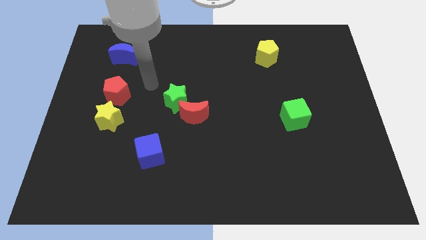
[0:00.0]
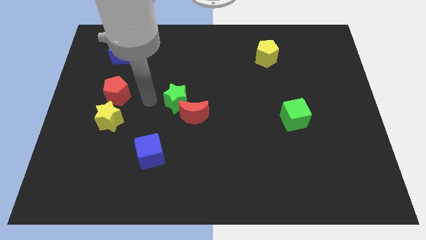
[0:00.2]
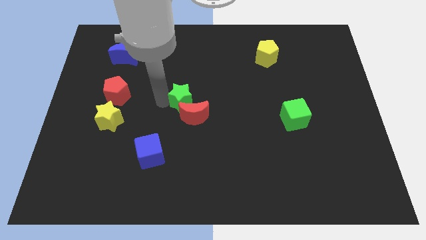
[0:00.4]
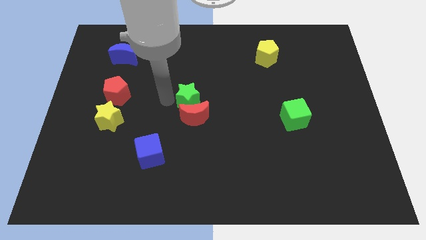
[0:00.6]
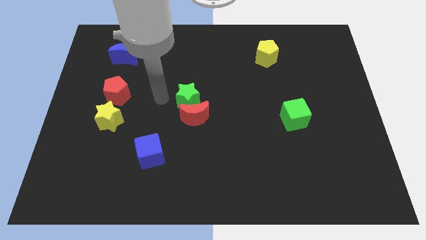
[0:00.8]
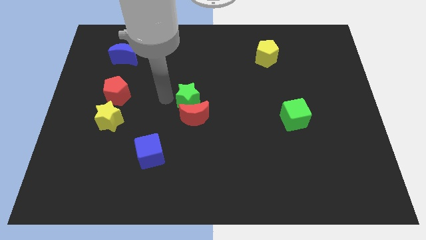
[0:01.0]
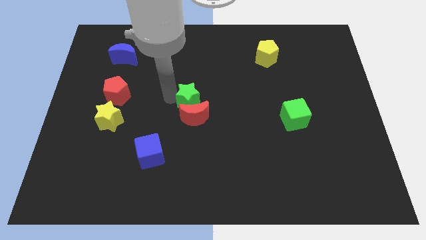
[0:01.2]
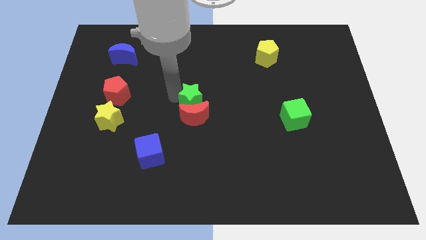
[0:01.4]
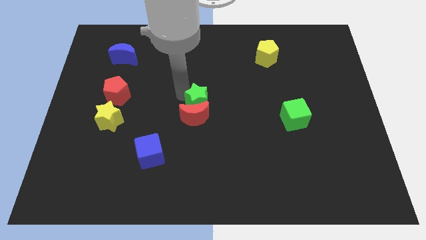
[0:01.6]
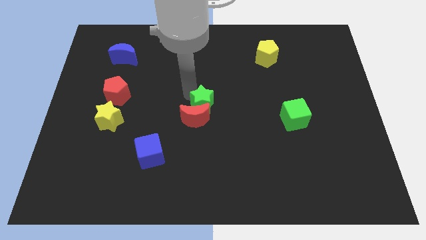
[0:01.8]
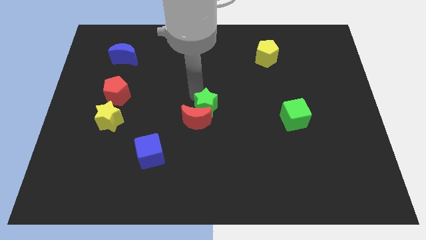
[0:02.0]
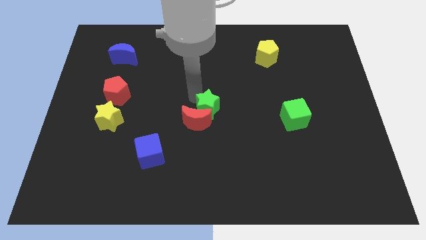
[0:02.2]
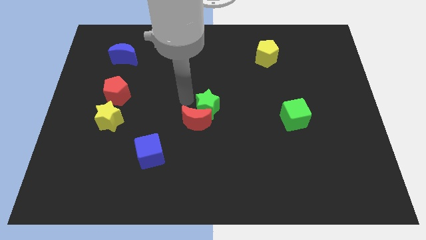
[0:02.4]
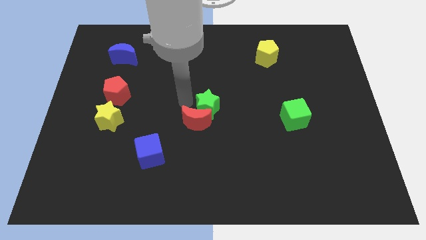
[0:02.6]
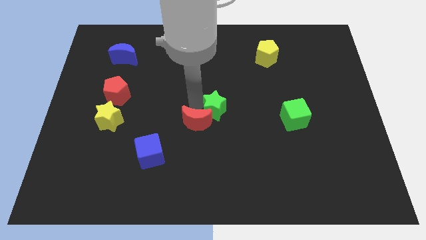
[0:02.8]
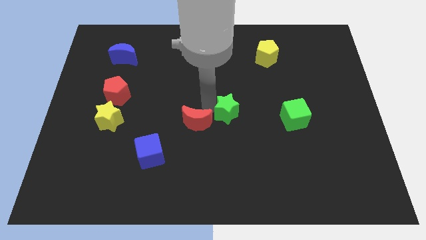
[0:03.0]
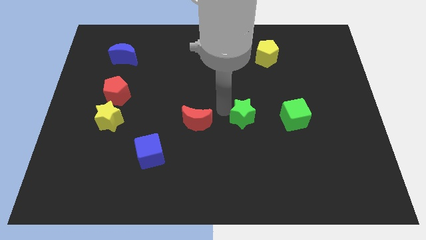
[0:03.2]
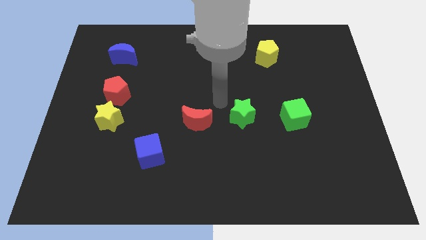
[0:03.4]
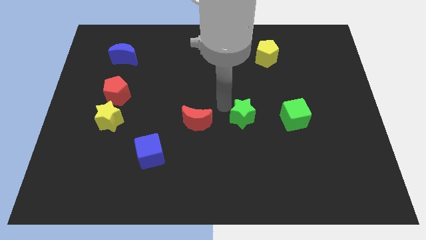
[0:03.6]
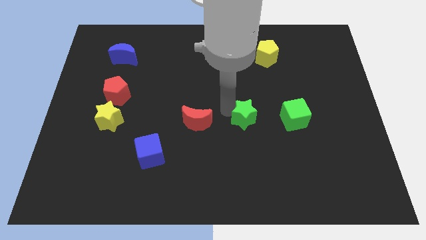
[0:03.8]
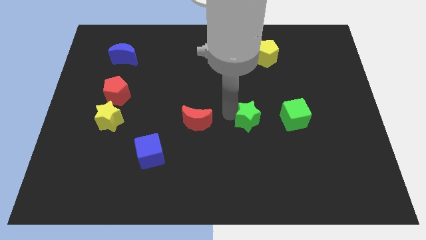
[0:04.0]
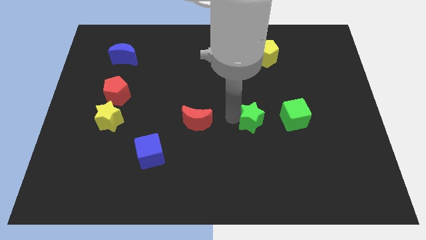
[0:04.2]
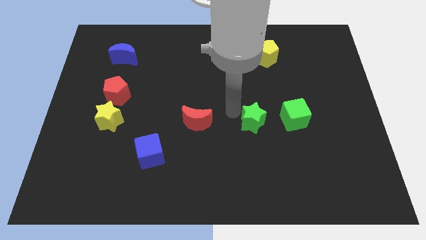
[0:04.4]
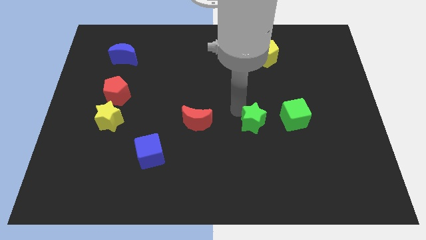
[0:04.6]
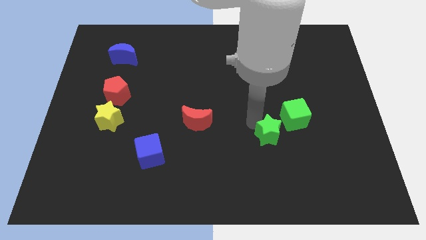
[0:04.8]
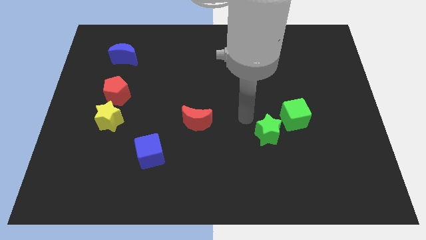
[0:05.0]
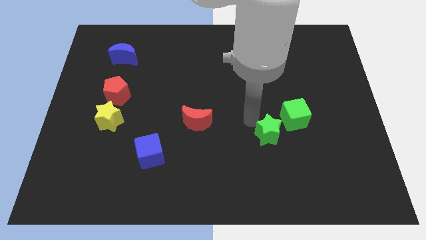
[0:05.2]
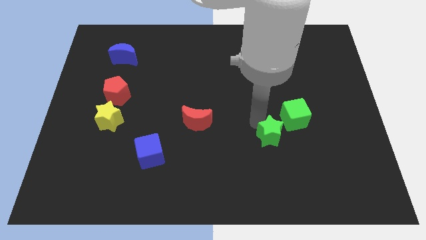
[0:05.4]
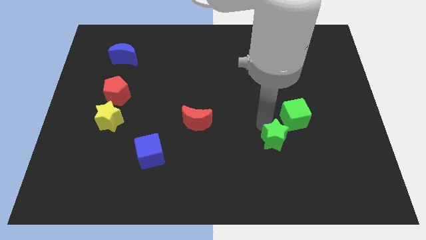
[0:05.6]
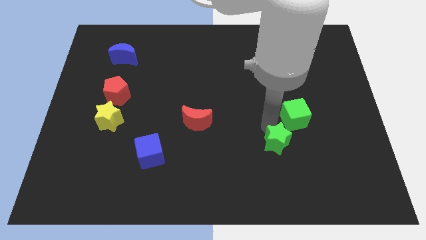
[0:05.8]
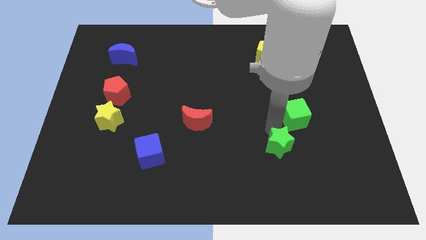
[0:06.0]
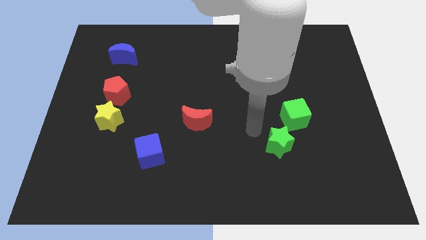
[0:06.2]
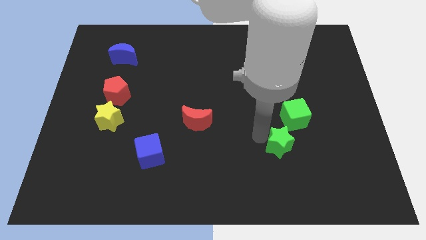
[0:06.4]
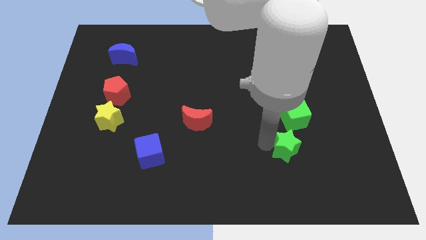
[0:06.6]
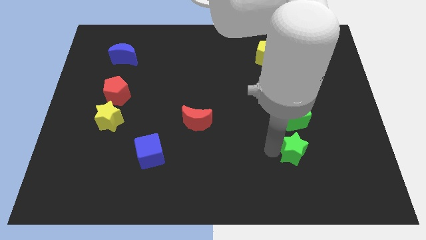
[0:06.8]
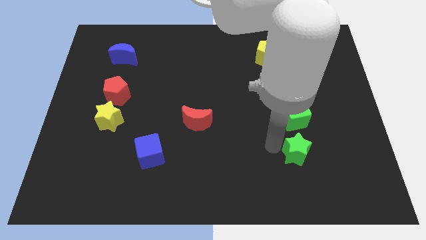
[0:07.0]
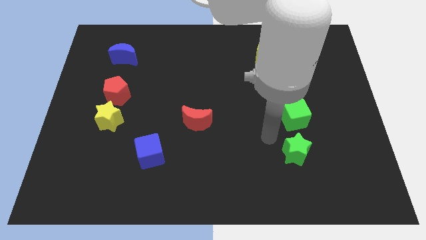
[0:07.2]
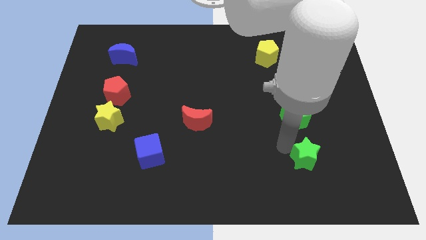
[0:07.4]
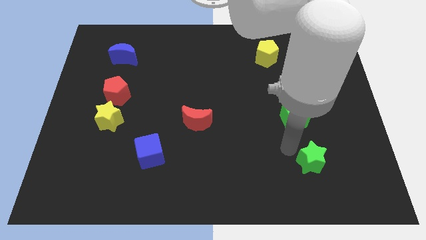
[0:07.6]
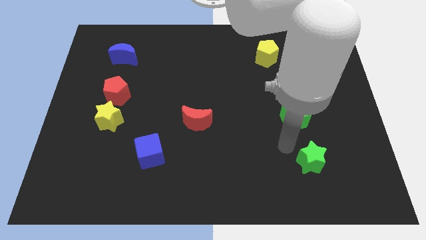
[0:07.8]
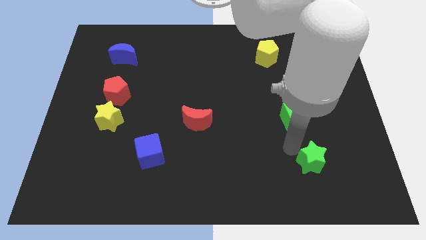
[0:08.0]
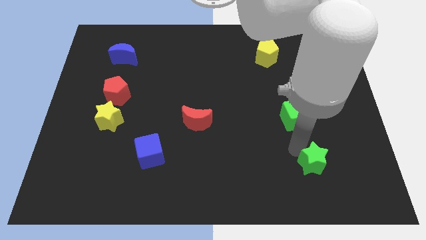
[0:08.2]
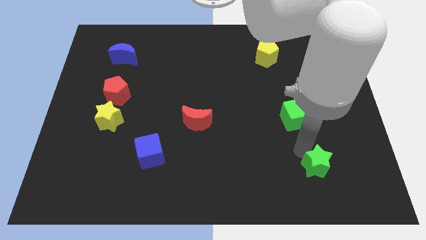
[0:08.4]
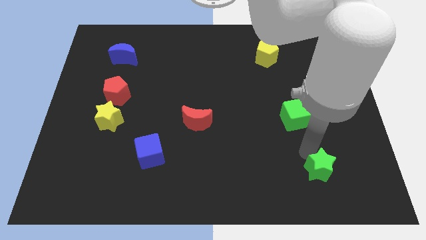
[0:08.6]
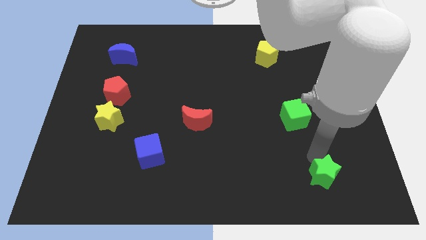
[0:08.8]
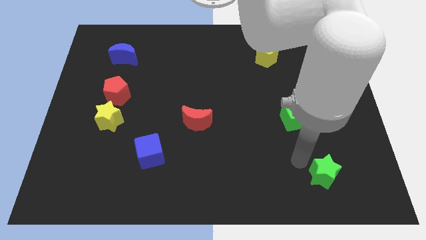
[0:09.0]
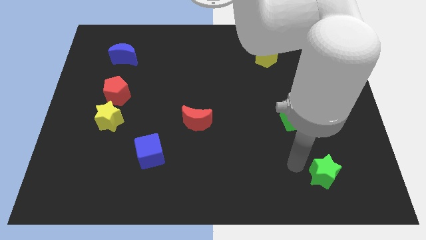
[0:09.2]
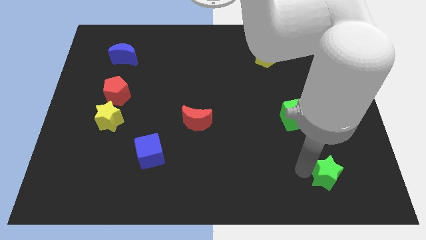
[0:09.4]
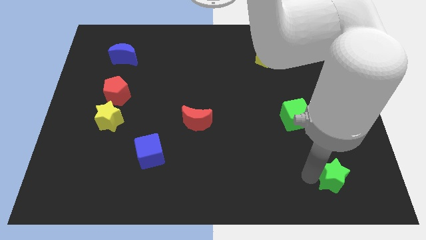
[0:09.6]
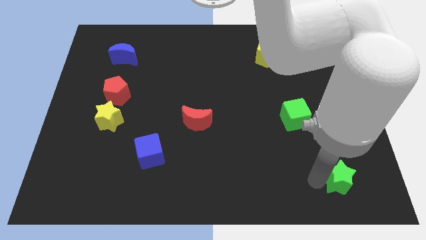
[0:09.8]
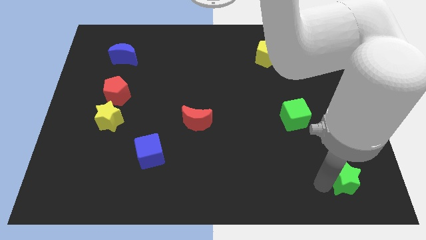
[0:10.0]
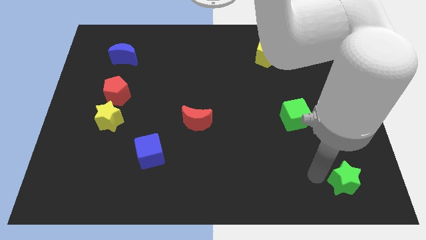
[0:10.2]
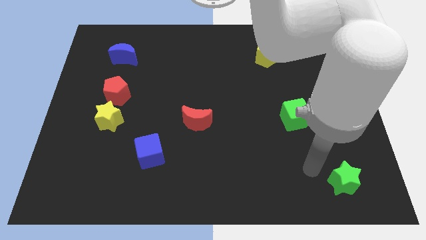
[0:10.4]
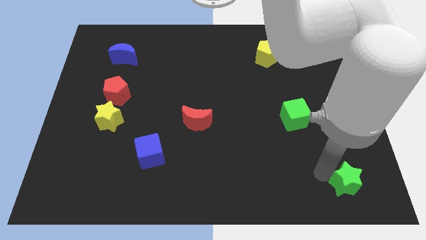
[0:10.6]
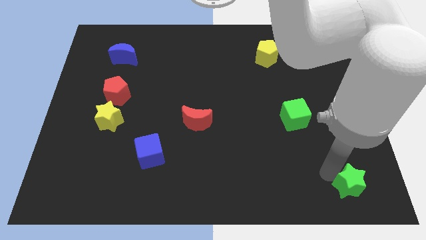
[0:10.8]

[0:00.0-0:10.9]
slide the green star to the bottom right corner

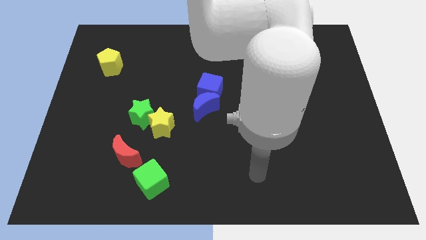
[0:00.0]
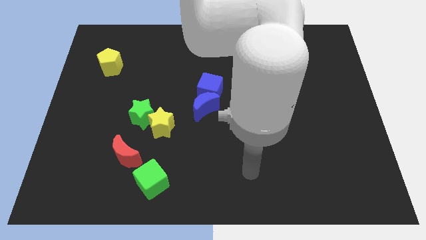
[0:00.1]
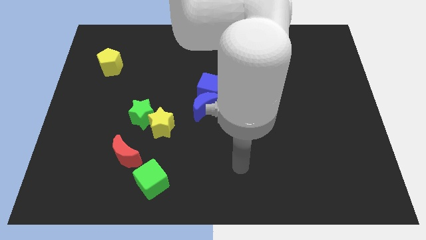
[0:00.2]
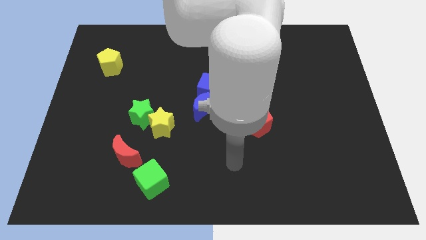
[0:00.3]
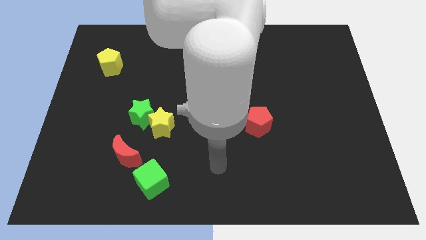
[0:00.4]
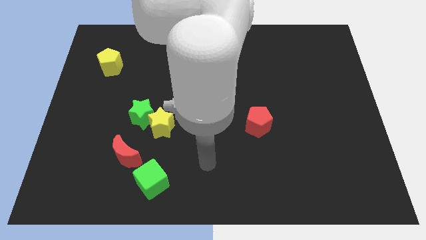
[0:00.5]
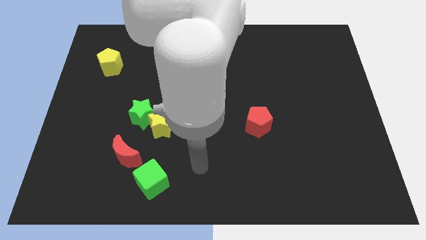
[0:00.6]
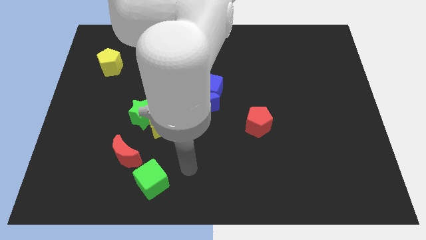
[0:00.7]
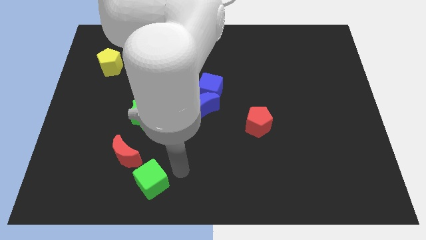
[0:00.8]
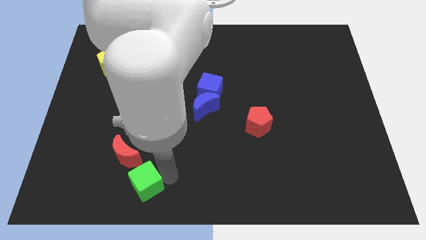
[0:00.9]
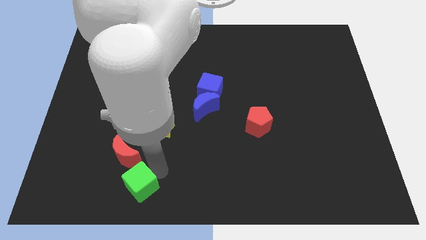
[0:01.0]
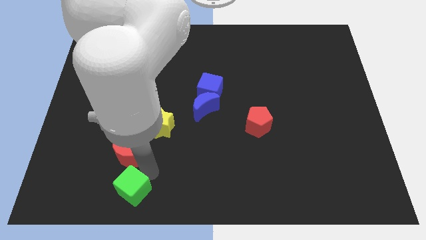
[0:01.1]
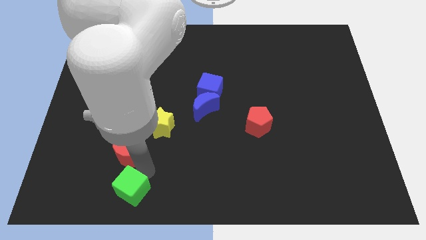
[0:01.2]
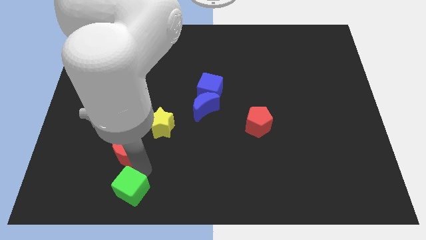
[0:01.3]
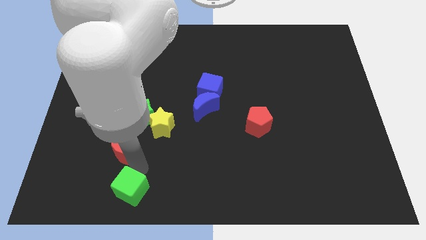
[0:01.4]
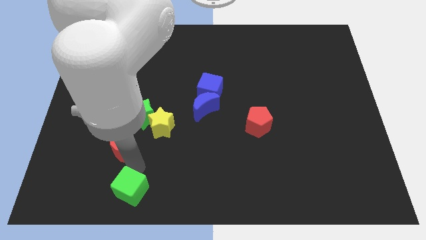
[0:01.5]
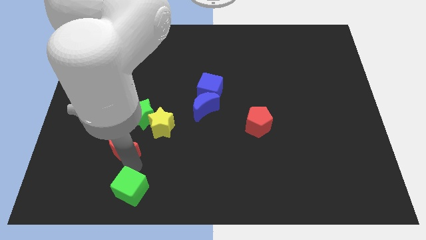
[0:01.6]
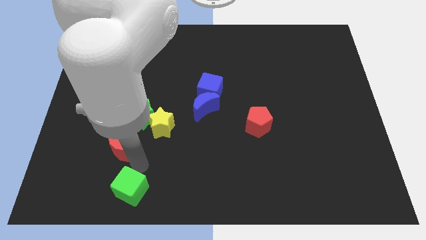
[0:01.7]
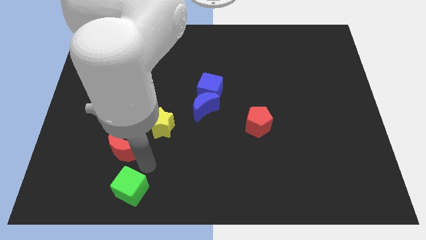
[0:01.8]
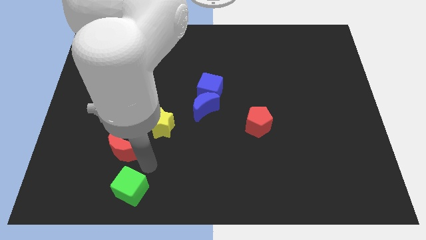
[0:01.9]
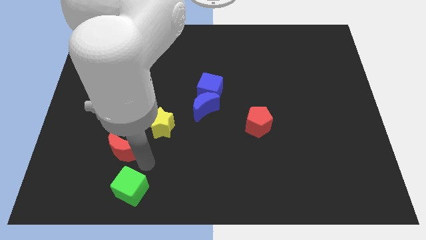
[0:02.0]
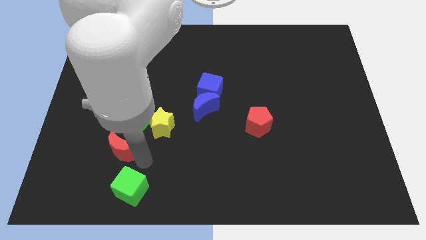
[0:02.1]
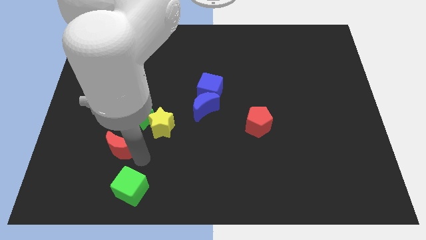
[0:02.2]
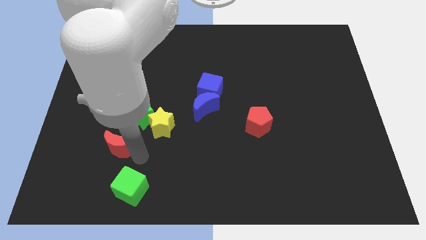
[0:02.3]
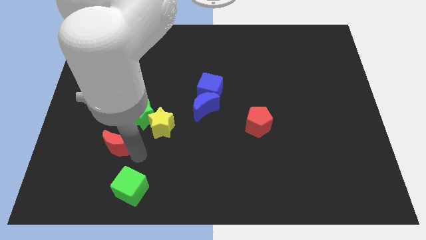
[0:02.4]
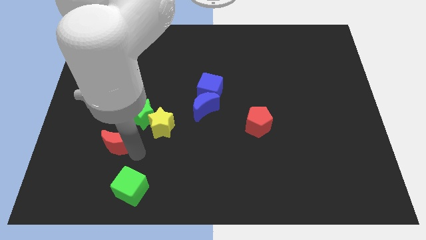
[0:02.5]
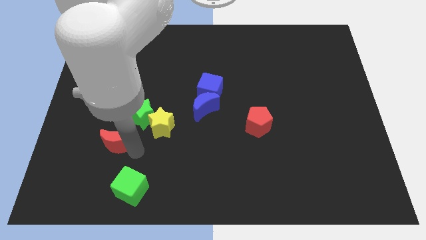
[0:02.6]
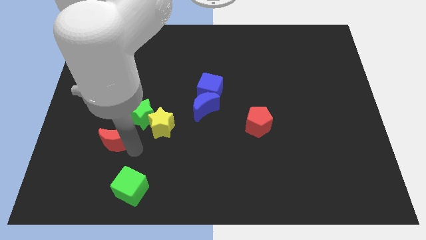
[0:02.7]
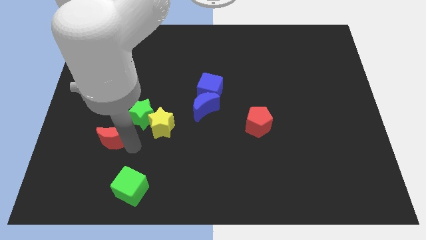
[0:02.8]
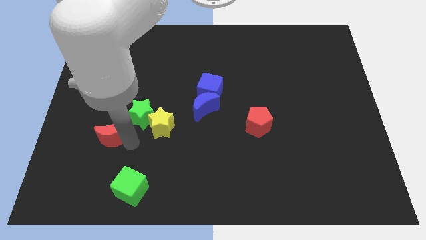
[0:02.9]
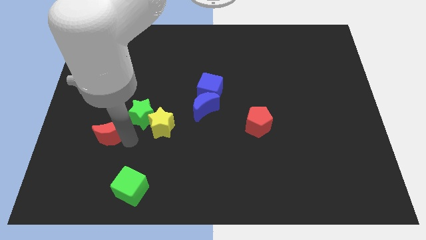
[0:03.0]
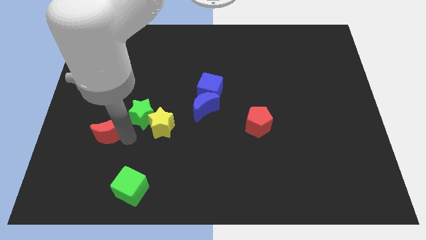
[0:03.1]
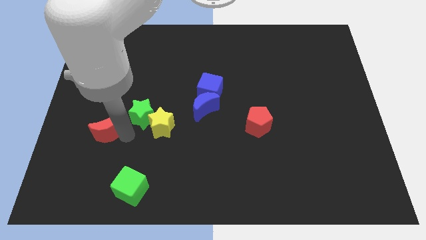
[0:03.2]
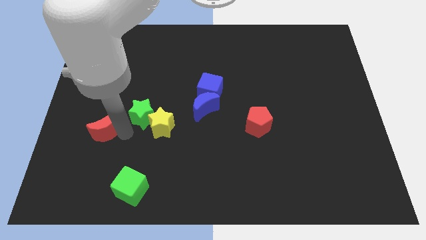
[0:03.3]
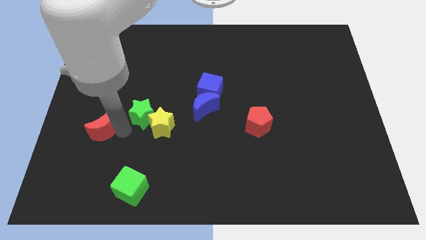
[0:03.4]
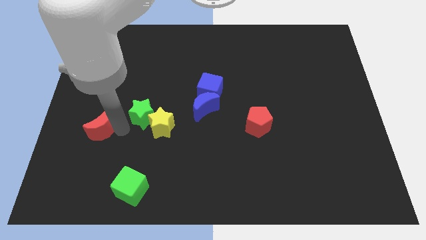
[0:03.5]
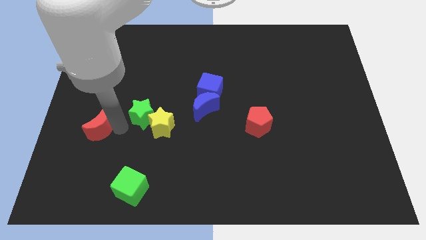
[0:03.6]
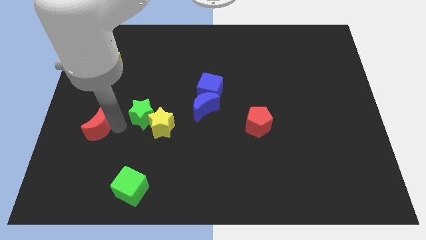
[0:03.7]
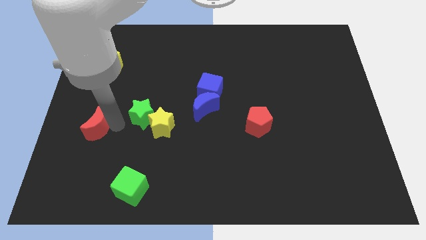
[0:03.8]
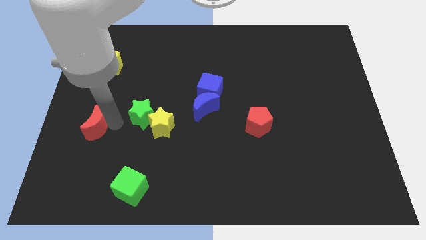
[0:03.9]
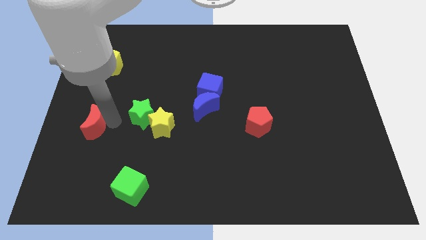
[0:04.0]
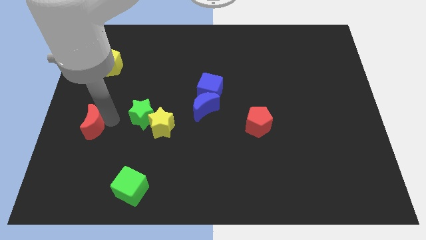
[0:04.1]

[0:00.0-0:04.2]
push the red moon to the left side
